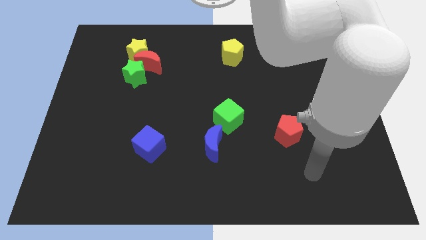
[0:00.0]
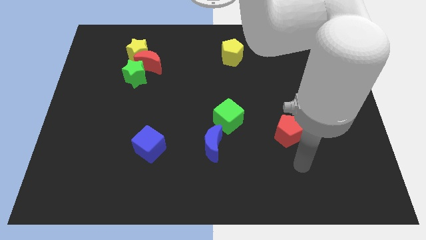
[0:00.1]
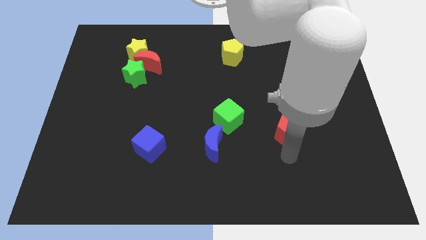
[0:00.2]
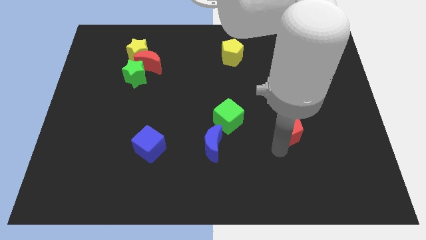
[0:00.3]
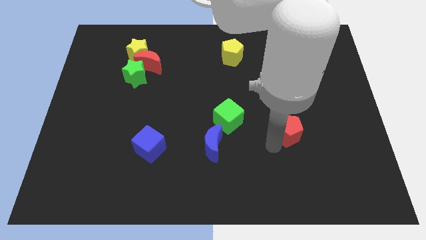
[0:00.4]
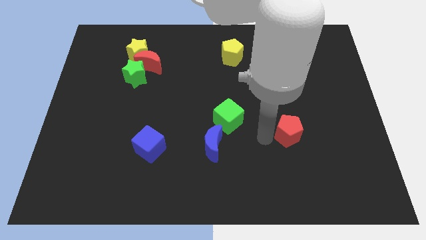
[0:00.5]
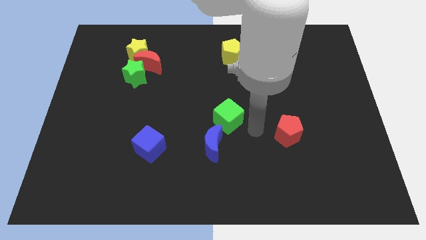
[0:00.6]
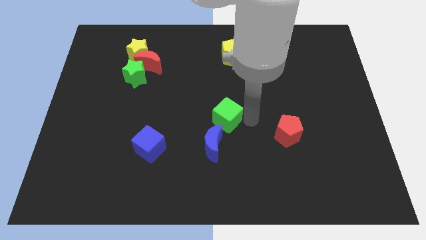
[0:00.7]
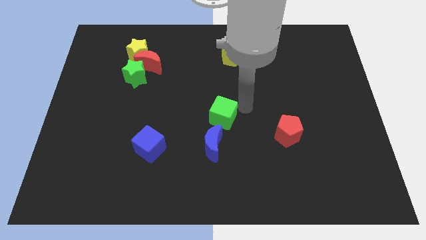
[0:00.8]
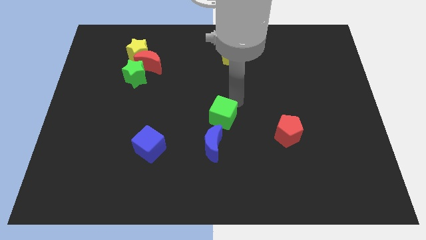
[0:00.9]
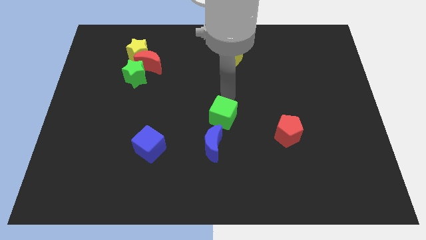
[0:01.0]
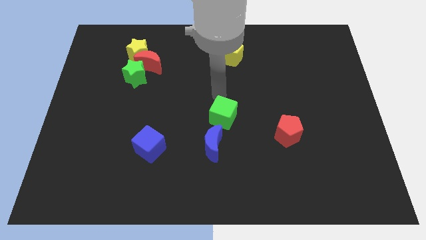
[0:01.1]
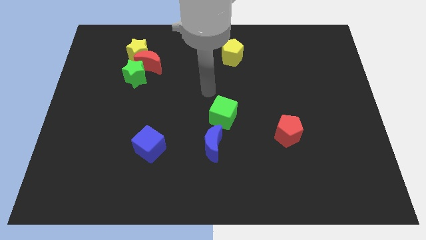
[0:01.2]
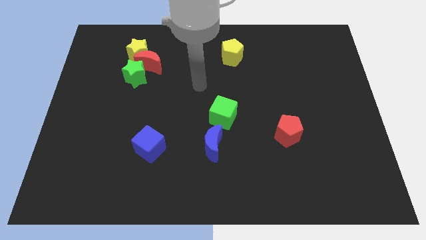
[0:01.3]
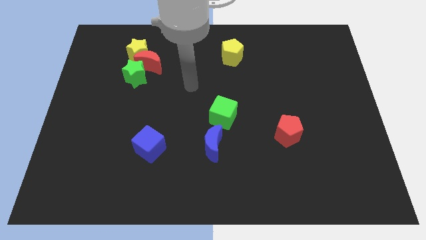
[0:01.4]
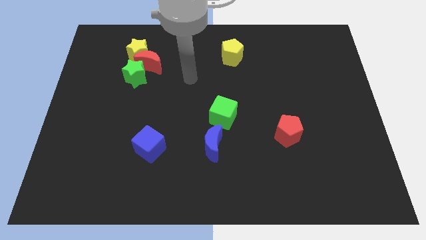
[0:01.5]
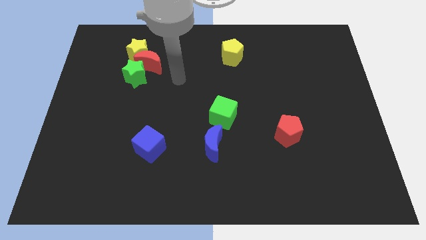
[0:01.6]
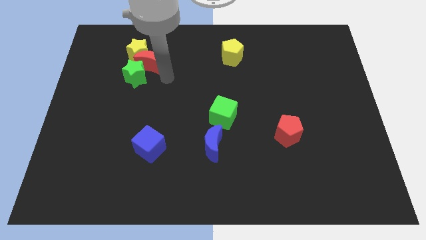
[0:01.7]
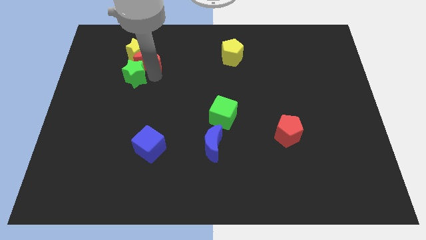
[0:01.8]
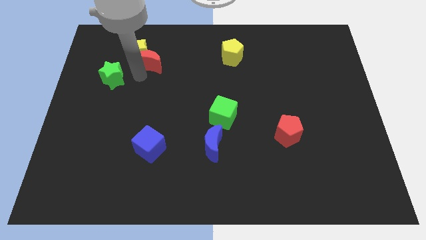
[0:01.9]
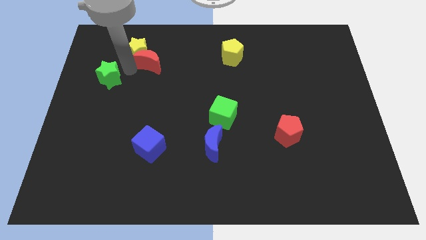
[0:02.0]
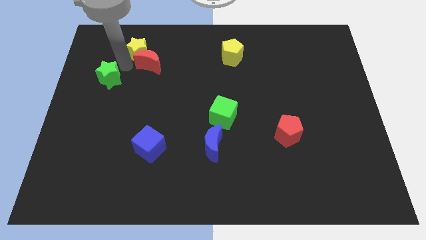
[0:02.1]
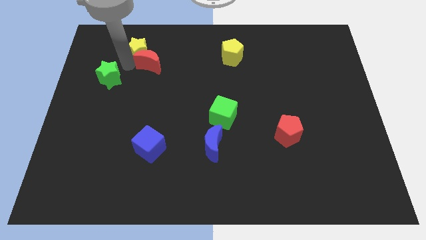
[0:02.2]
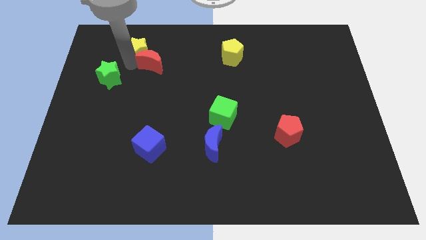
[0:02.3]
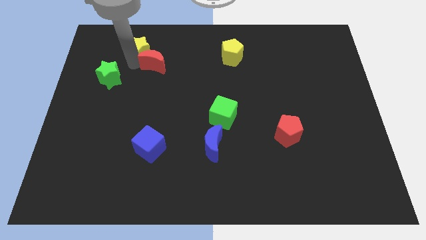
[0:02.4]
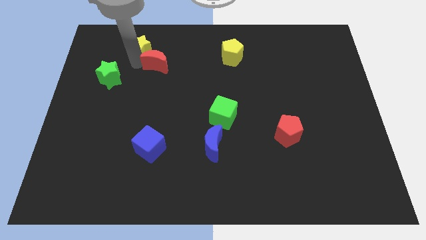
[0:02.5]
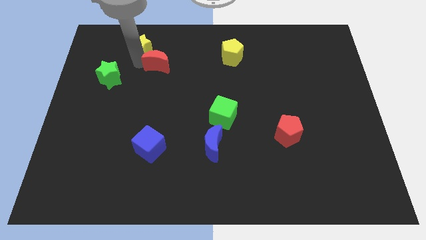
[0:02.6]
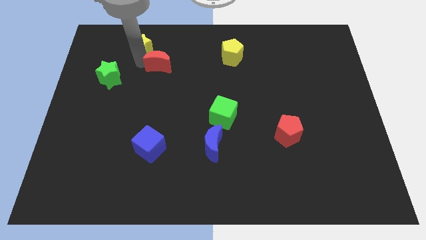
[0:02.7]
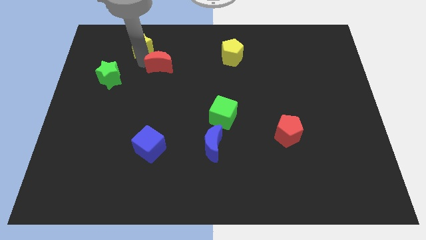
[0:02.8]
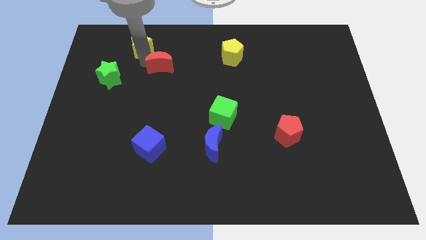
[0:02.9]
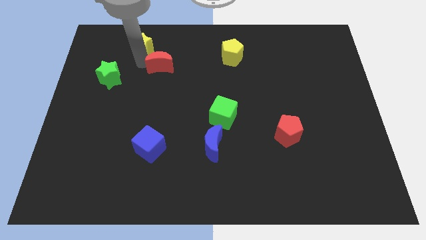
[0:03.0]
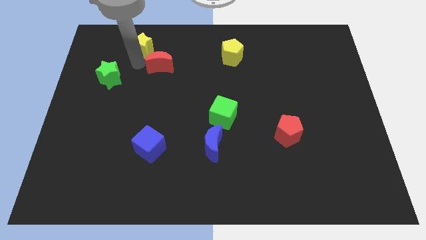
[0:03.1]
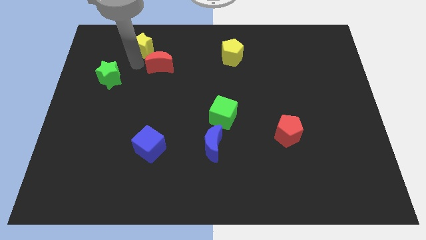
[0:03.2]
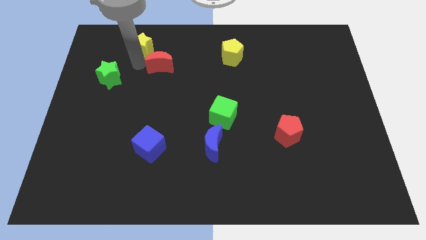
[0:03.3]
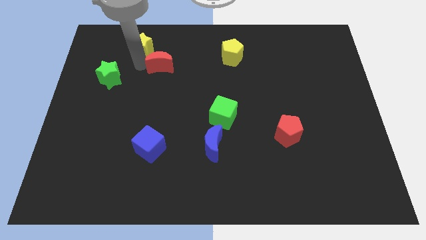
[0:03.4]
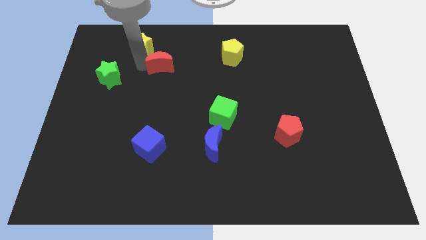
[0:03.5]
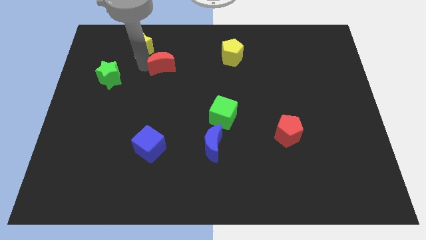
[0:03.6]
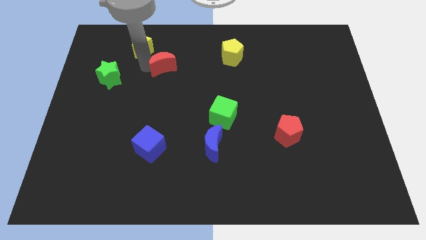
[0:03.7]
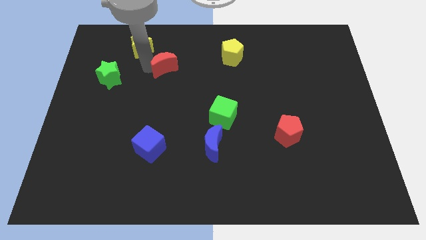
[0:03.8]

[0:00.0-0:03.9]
move the red moon away from the yellow star and green star

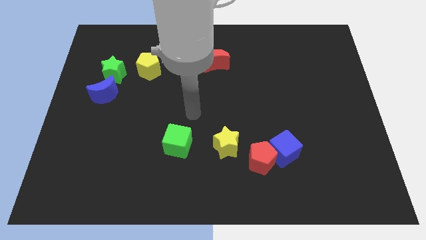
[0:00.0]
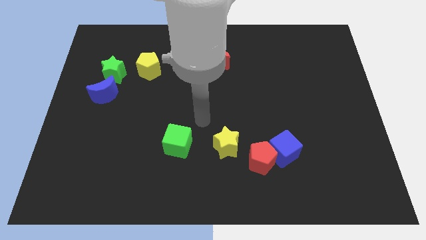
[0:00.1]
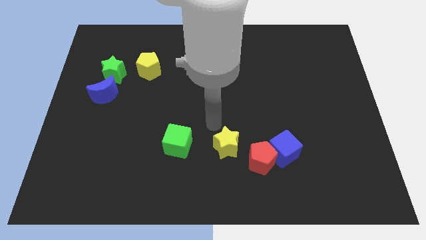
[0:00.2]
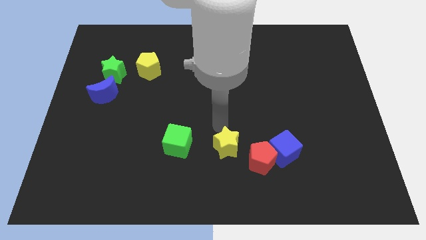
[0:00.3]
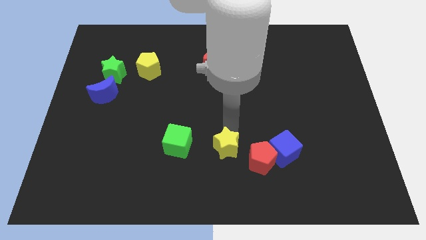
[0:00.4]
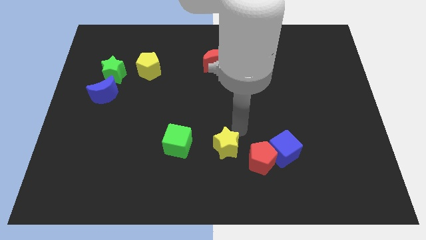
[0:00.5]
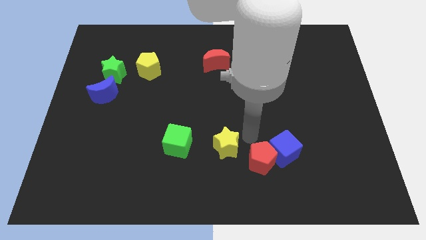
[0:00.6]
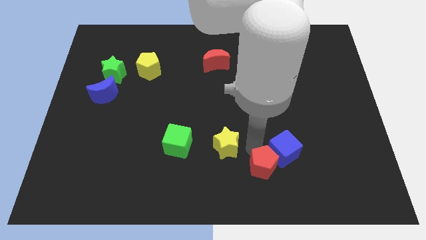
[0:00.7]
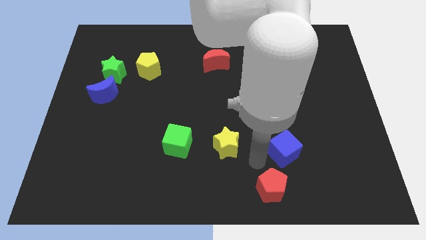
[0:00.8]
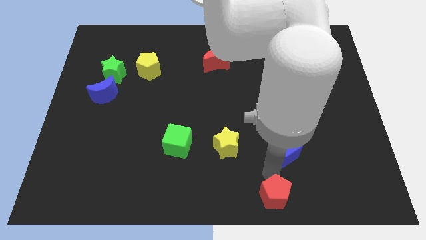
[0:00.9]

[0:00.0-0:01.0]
move the blue cube away from the red pentagon

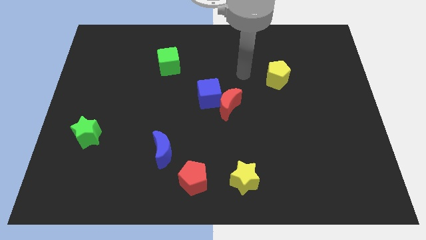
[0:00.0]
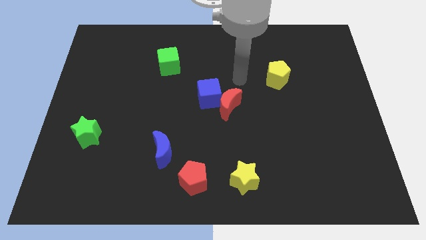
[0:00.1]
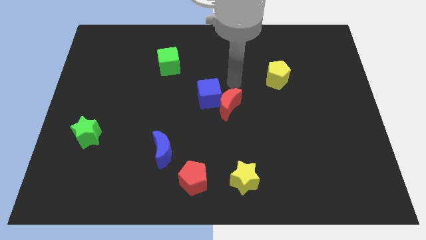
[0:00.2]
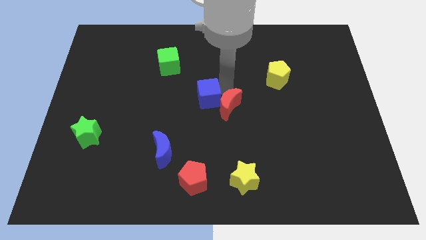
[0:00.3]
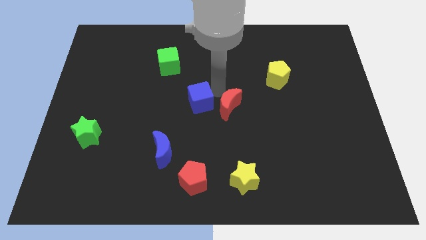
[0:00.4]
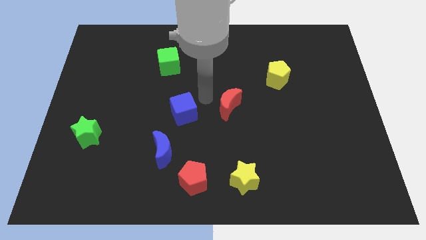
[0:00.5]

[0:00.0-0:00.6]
pull the red moon apart from the blue cube

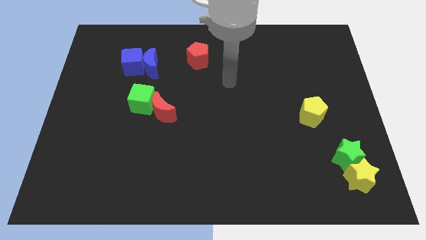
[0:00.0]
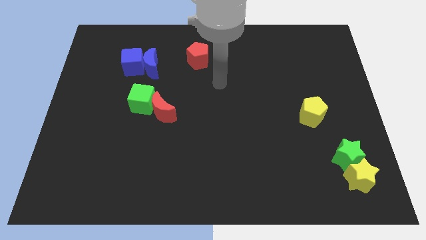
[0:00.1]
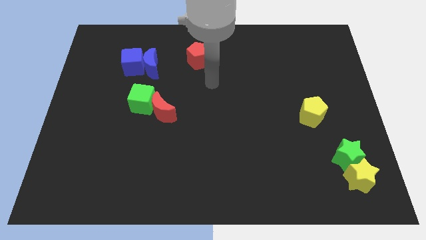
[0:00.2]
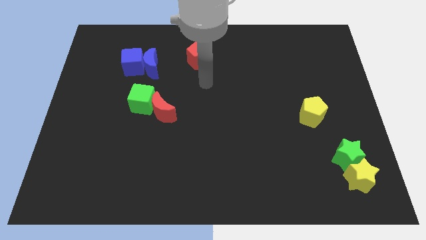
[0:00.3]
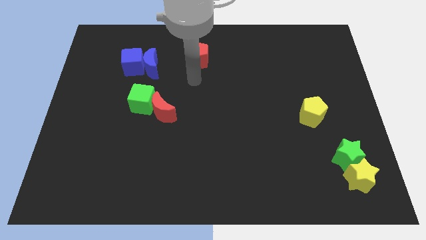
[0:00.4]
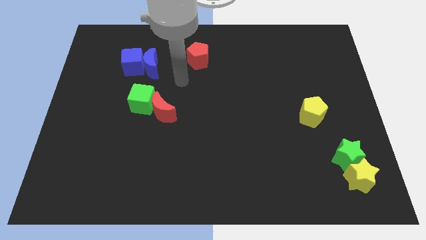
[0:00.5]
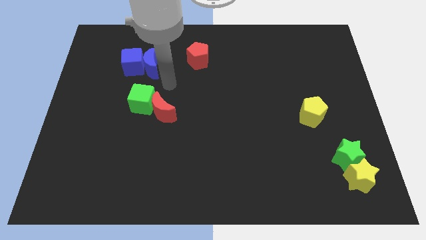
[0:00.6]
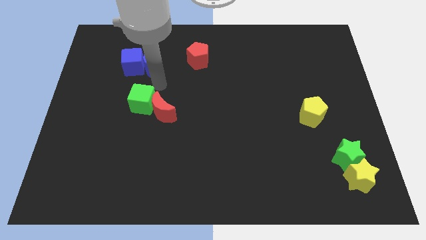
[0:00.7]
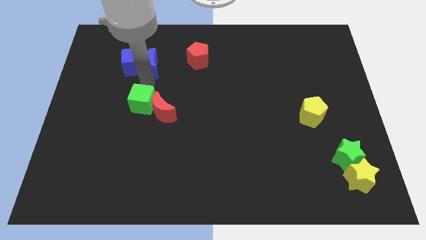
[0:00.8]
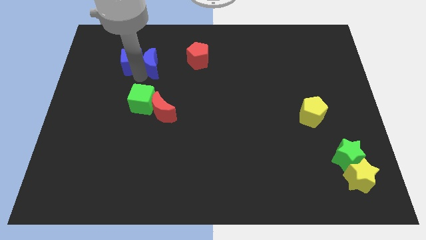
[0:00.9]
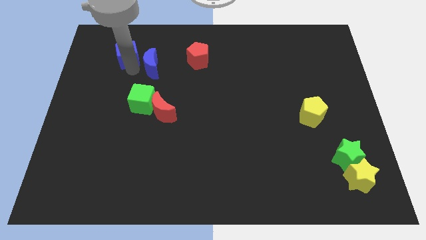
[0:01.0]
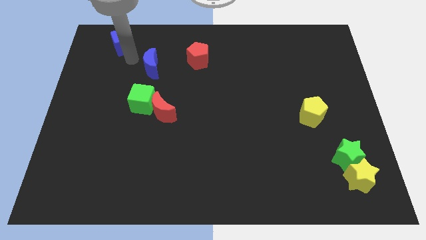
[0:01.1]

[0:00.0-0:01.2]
pull the blue moon apart from the blue cube

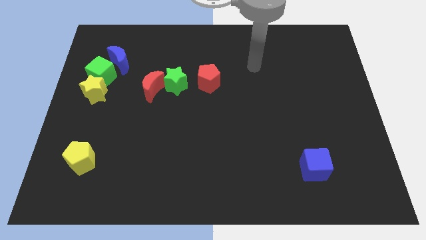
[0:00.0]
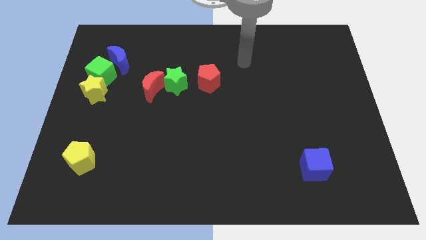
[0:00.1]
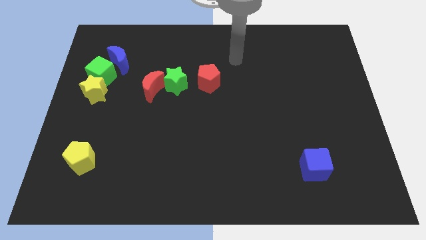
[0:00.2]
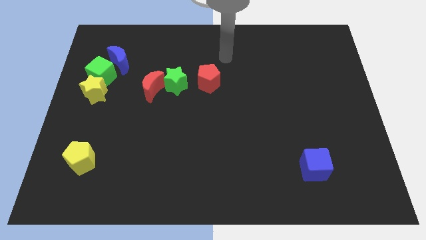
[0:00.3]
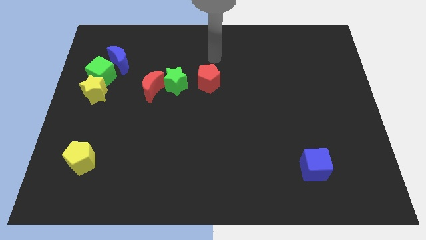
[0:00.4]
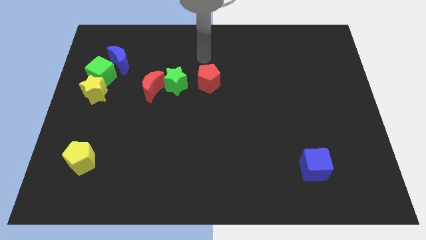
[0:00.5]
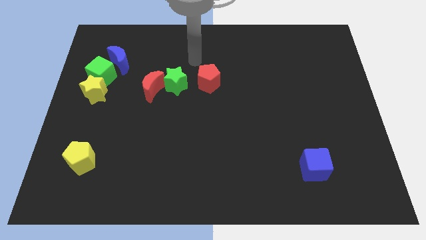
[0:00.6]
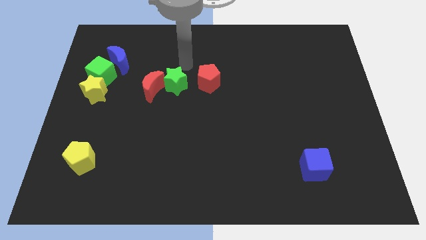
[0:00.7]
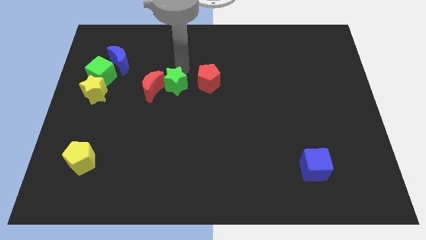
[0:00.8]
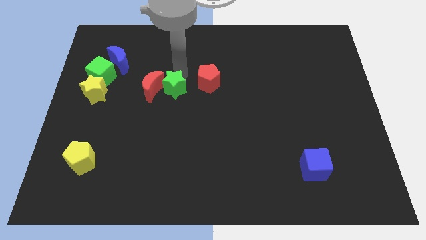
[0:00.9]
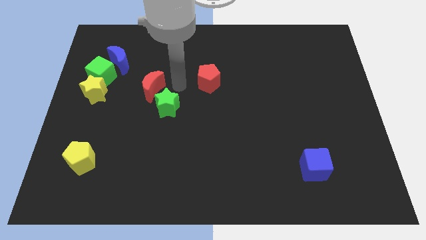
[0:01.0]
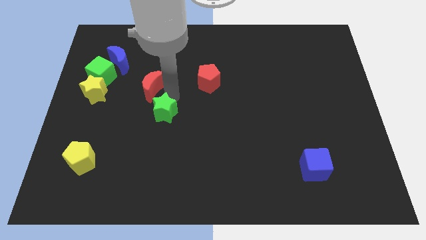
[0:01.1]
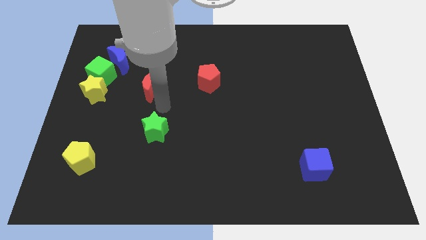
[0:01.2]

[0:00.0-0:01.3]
move the red moon away from the green star

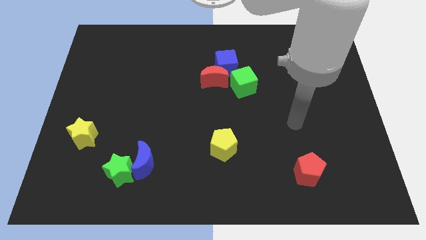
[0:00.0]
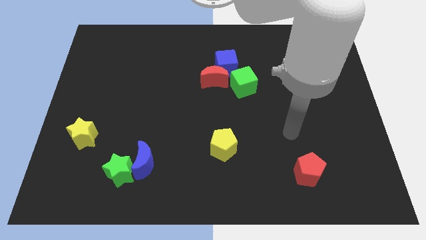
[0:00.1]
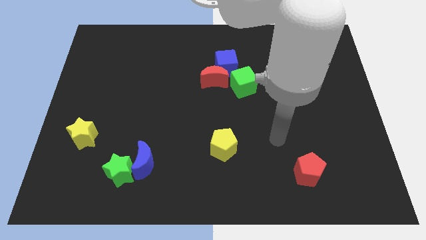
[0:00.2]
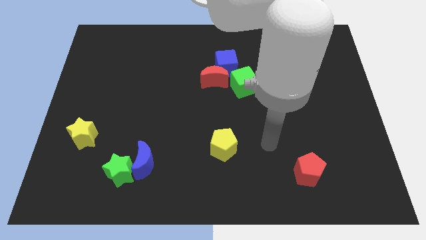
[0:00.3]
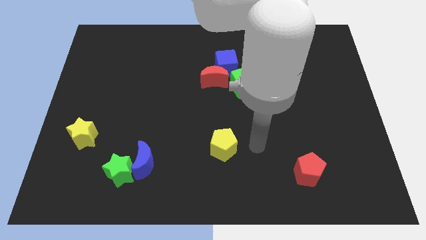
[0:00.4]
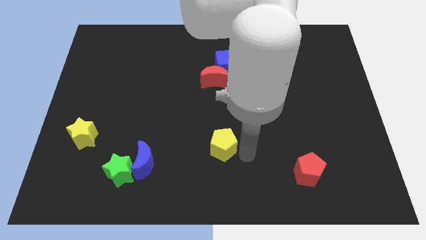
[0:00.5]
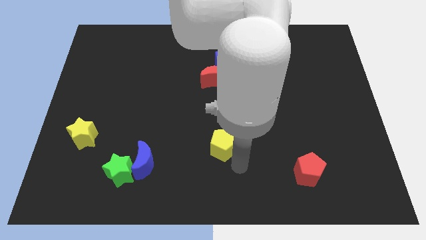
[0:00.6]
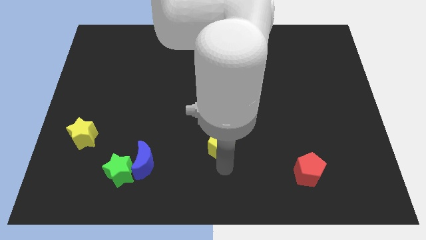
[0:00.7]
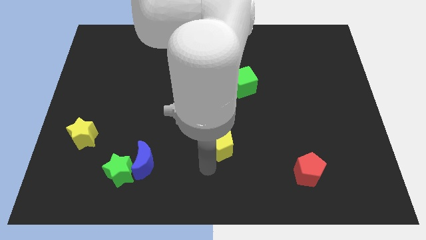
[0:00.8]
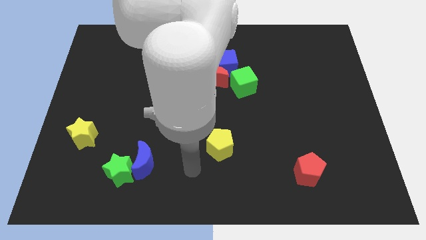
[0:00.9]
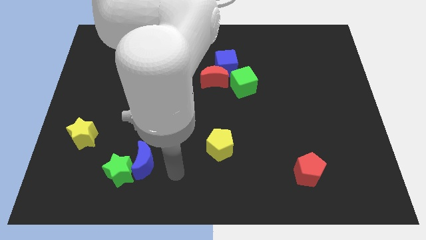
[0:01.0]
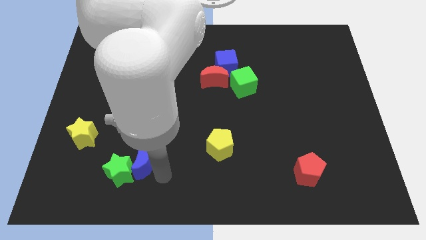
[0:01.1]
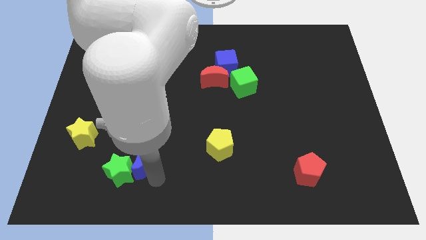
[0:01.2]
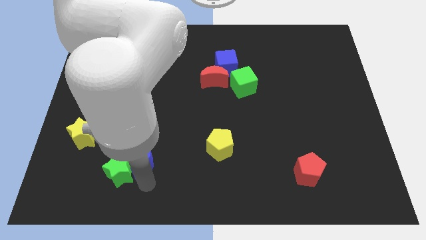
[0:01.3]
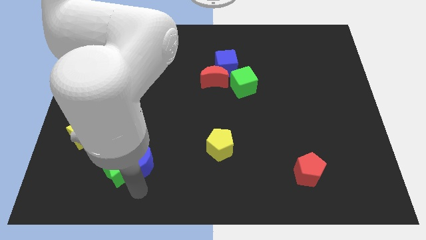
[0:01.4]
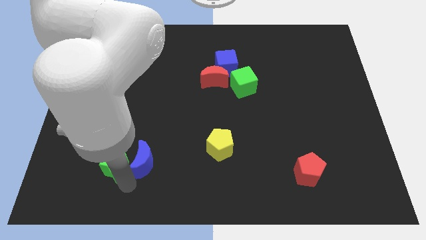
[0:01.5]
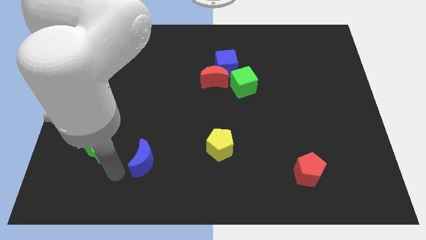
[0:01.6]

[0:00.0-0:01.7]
separate the blue moon from the green star
